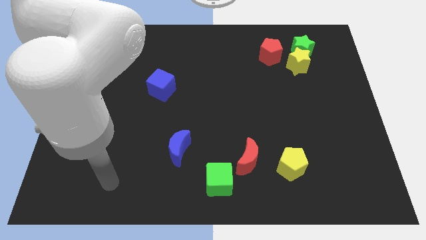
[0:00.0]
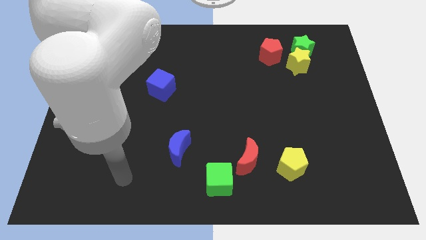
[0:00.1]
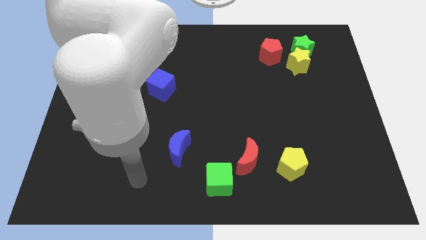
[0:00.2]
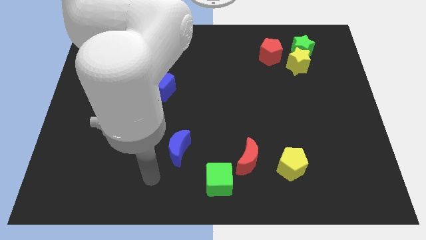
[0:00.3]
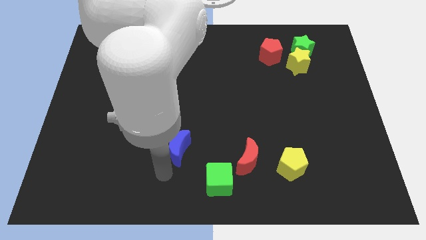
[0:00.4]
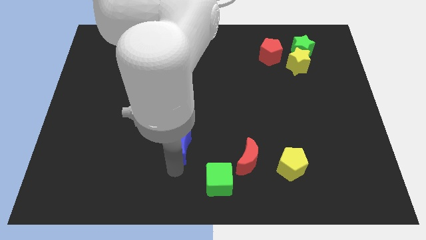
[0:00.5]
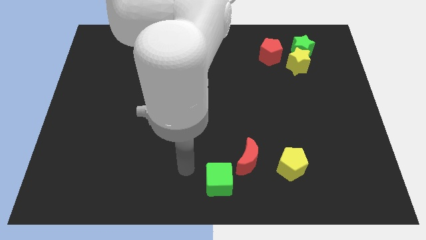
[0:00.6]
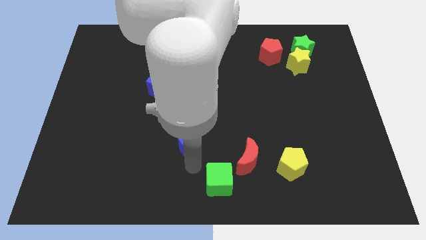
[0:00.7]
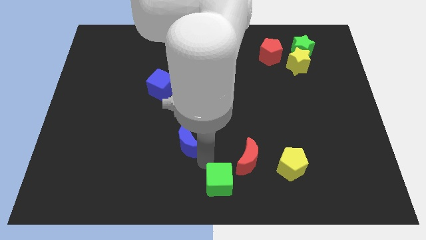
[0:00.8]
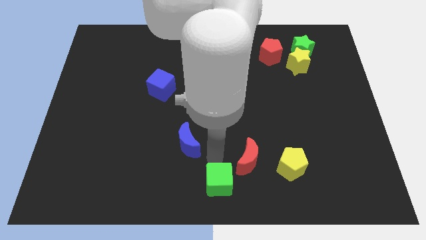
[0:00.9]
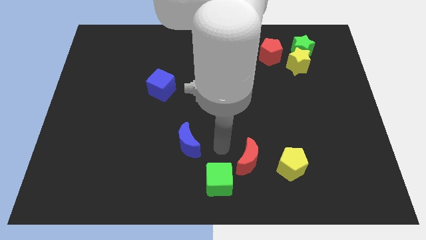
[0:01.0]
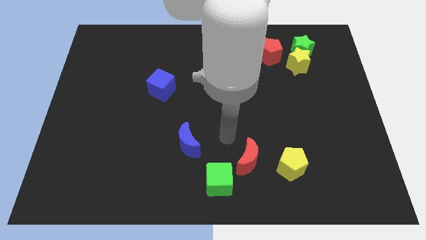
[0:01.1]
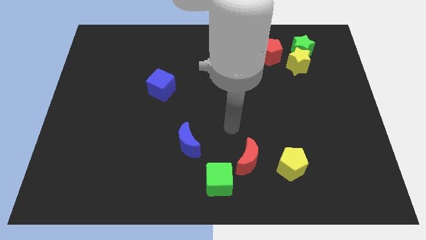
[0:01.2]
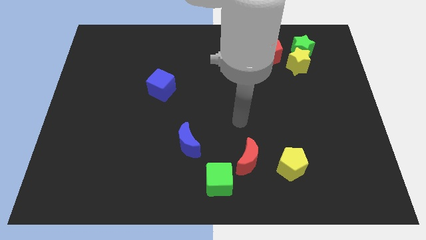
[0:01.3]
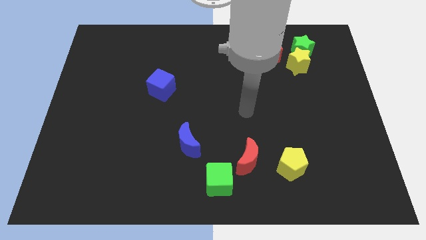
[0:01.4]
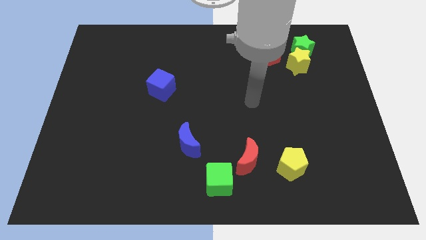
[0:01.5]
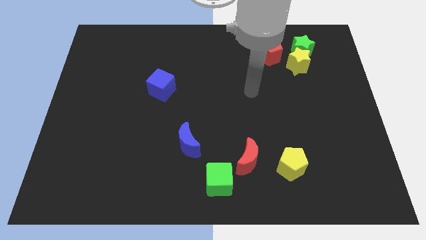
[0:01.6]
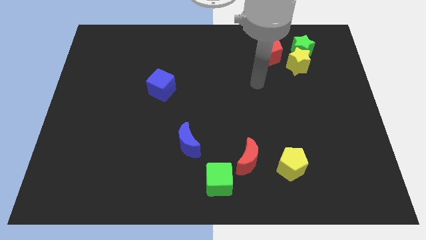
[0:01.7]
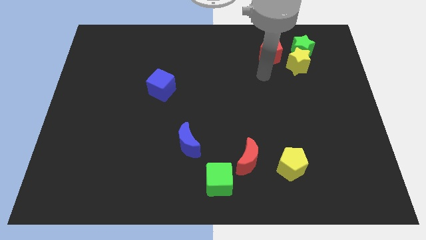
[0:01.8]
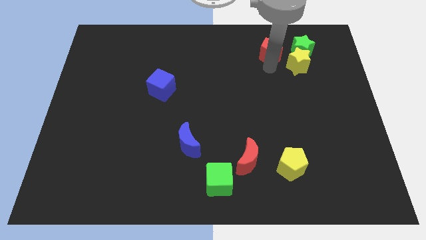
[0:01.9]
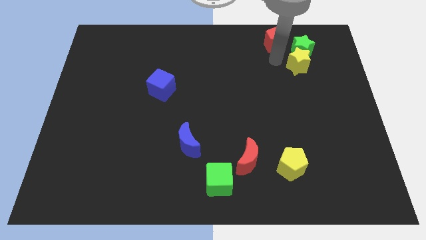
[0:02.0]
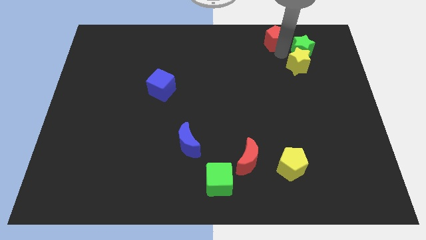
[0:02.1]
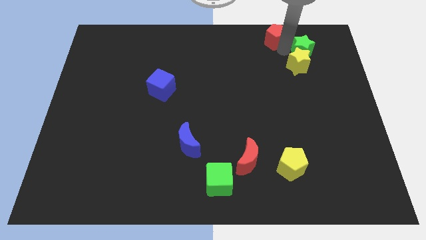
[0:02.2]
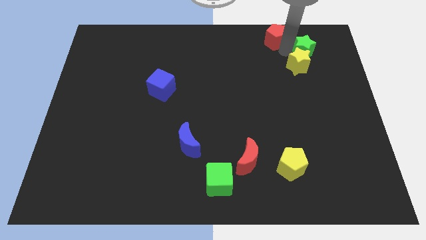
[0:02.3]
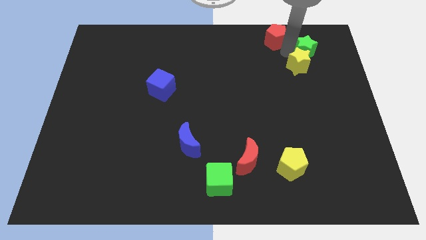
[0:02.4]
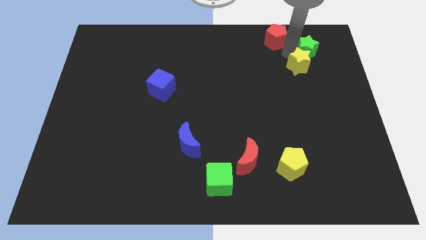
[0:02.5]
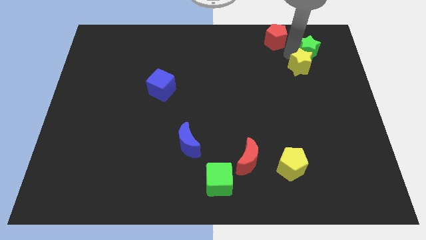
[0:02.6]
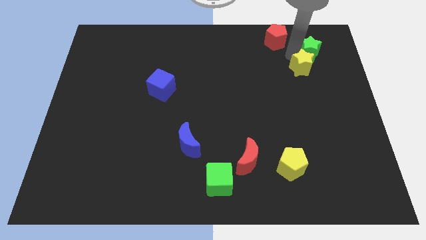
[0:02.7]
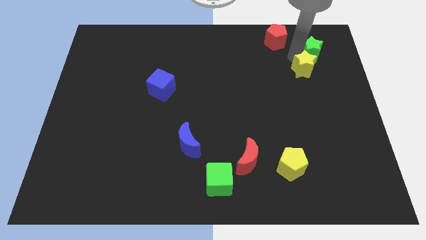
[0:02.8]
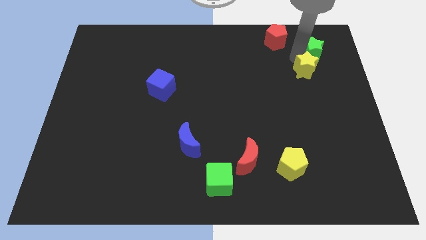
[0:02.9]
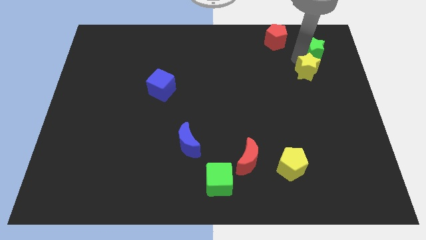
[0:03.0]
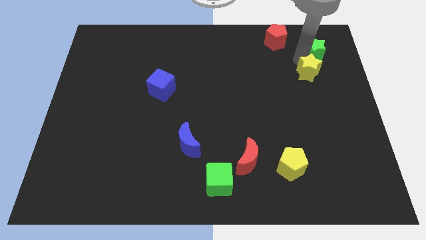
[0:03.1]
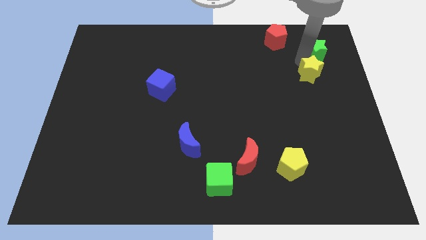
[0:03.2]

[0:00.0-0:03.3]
separate the yellow star from the green star and red pentagon

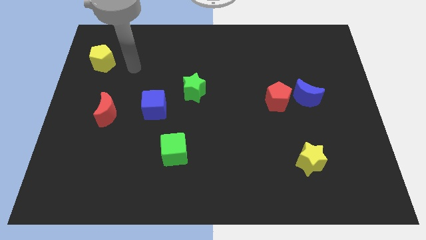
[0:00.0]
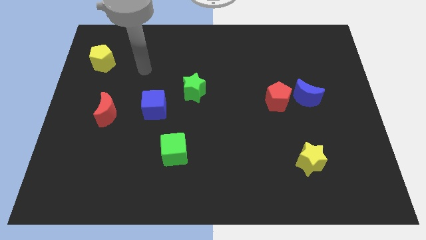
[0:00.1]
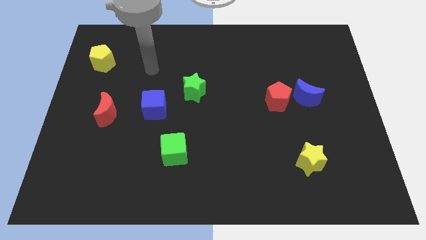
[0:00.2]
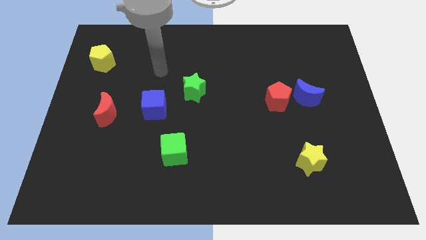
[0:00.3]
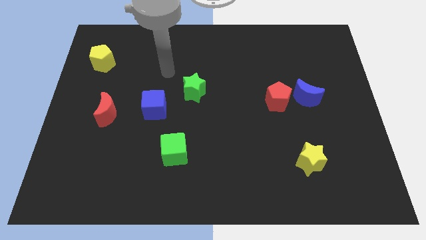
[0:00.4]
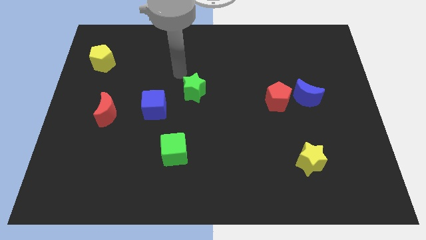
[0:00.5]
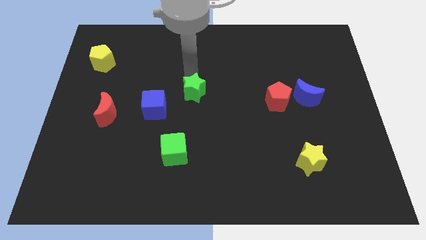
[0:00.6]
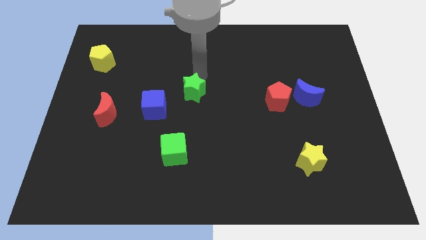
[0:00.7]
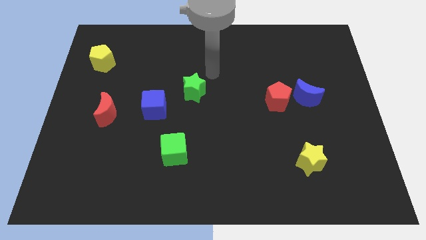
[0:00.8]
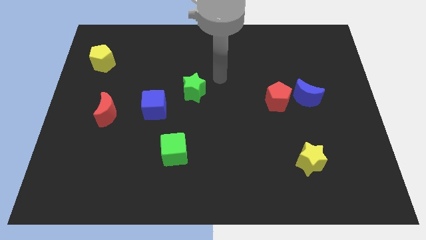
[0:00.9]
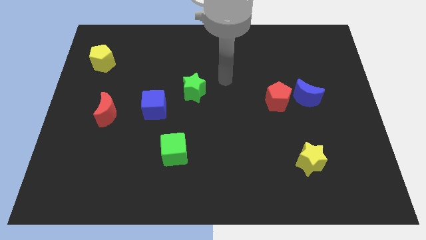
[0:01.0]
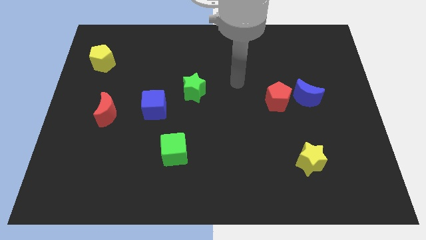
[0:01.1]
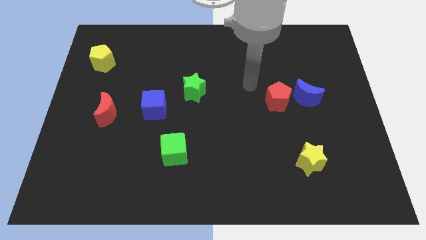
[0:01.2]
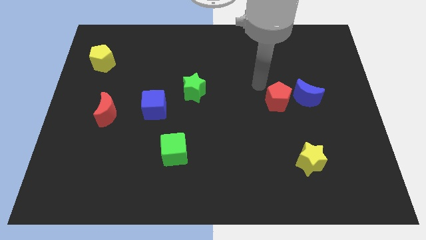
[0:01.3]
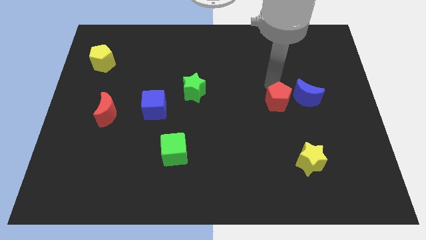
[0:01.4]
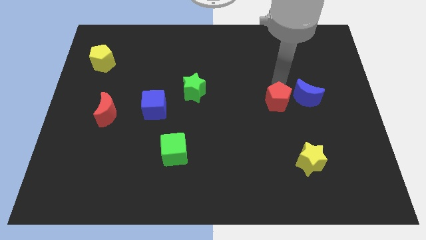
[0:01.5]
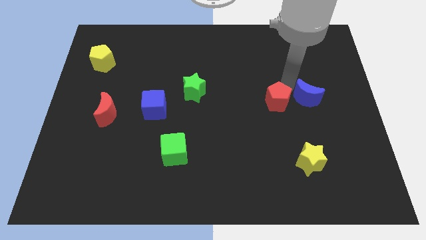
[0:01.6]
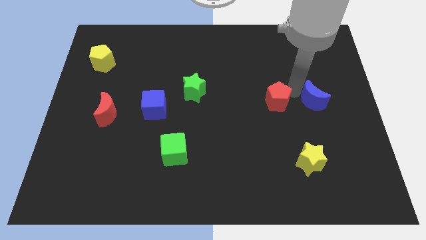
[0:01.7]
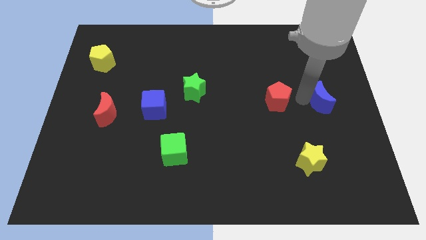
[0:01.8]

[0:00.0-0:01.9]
move the red pentagon away from the blue moon

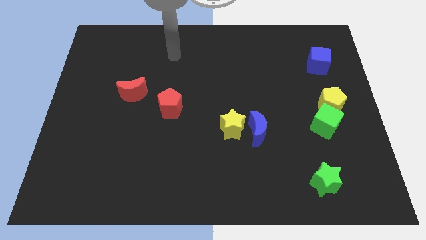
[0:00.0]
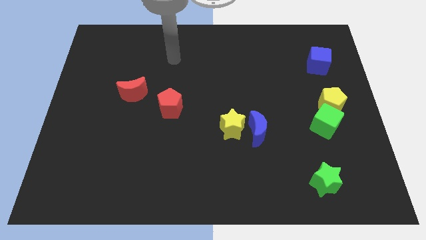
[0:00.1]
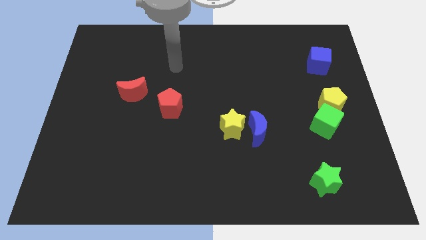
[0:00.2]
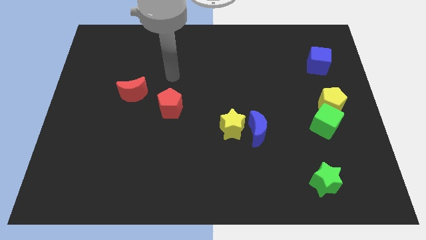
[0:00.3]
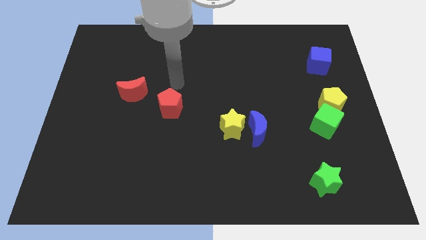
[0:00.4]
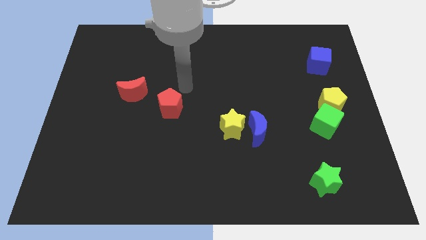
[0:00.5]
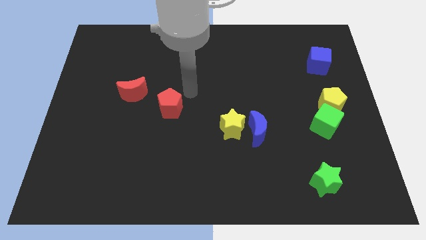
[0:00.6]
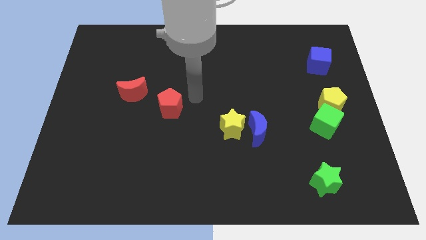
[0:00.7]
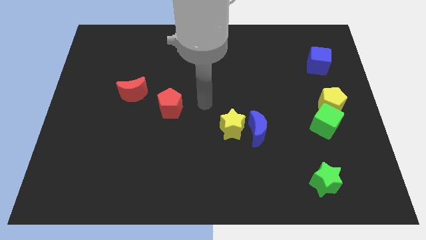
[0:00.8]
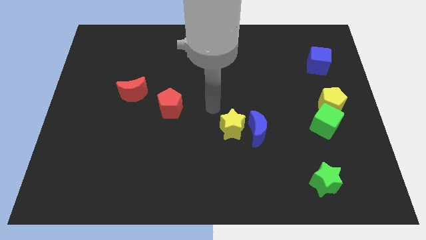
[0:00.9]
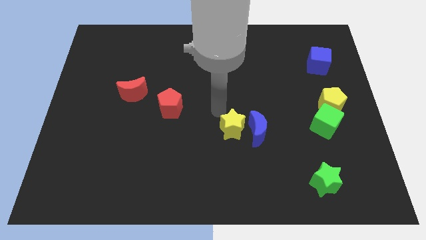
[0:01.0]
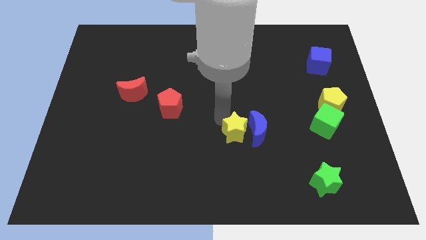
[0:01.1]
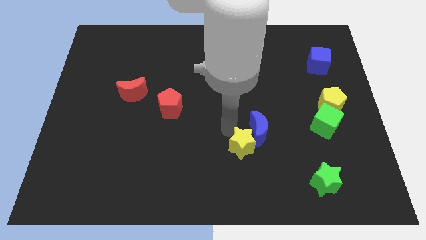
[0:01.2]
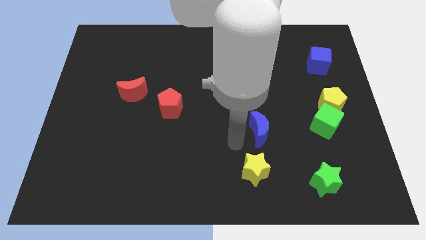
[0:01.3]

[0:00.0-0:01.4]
move the blue moon away from the yellow star

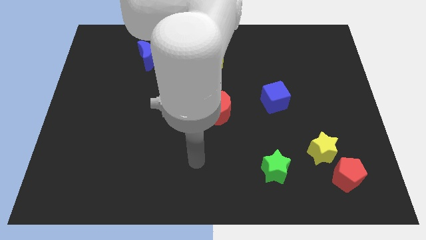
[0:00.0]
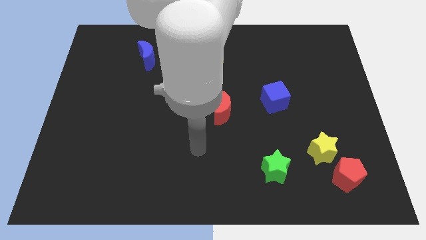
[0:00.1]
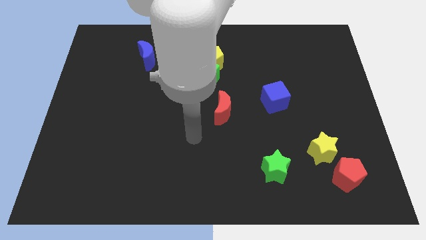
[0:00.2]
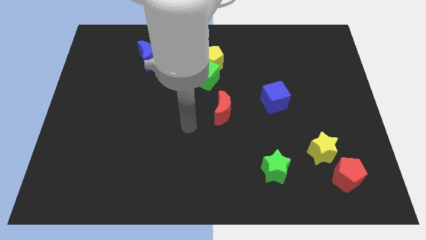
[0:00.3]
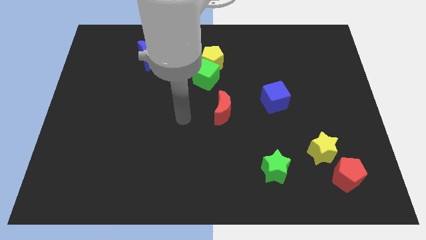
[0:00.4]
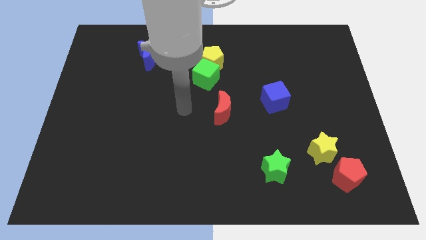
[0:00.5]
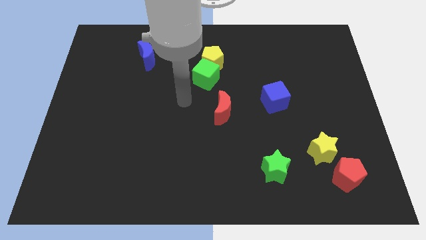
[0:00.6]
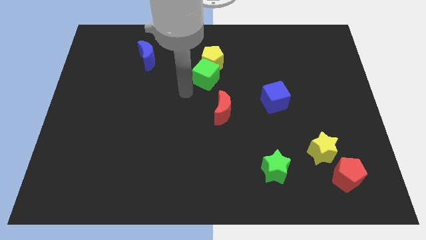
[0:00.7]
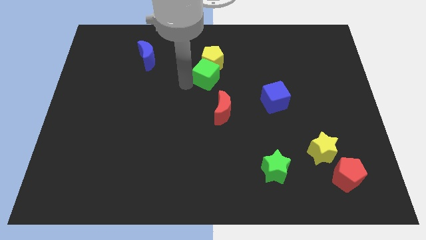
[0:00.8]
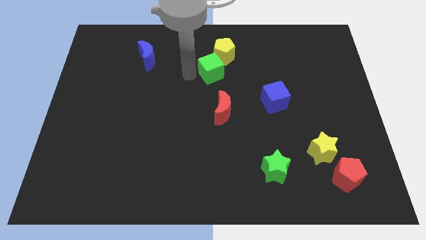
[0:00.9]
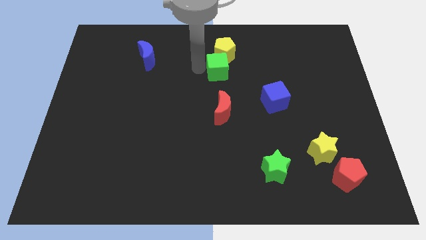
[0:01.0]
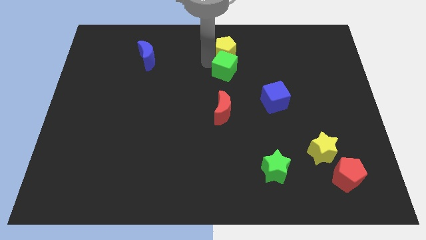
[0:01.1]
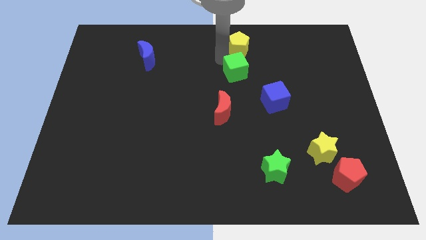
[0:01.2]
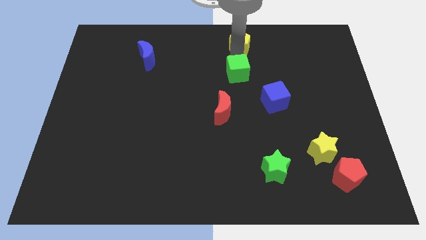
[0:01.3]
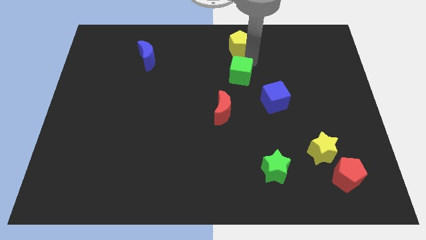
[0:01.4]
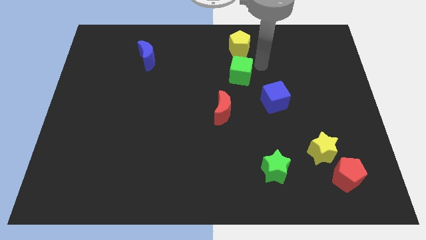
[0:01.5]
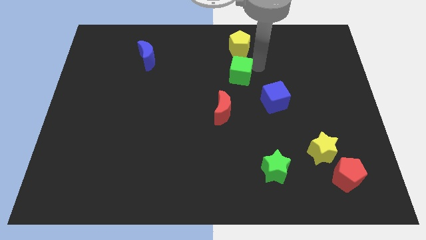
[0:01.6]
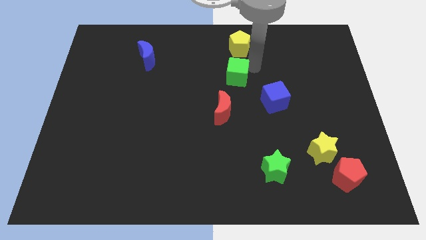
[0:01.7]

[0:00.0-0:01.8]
separate the green cube from the yellow pentagon

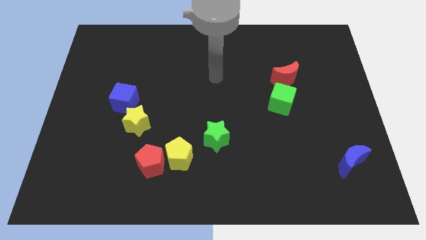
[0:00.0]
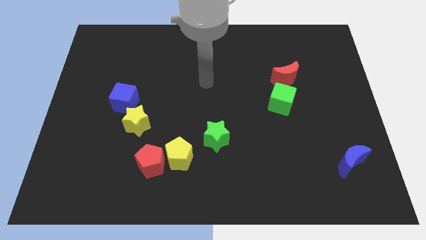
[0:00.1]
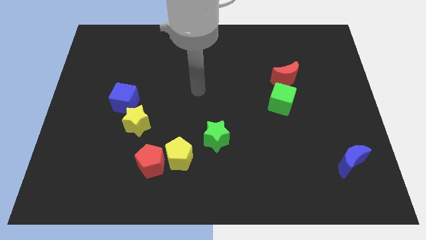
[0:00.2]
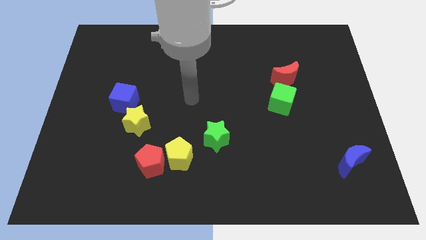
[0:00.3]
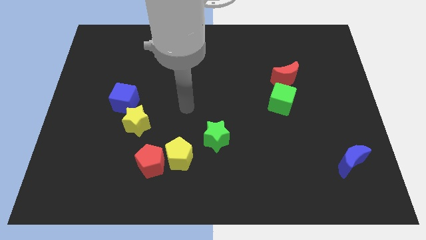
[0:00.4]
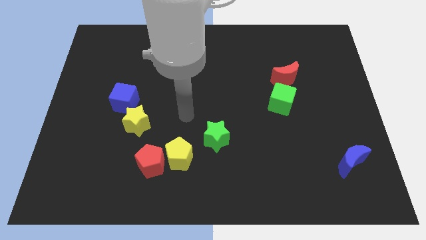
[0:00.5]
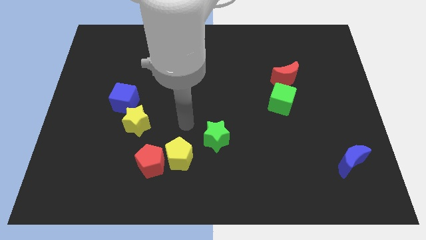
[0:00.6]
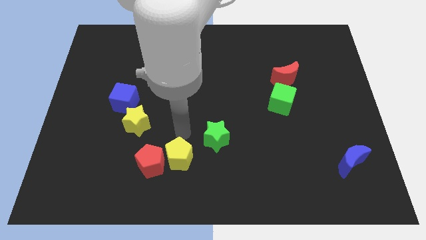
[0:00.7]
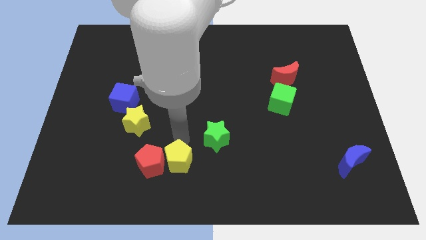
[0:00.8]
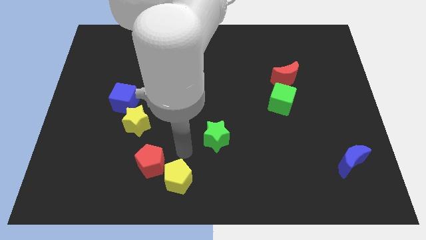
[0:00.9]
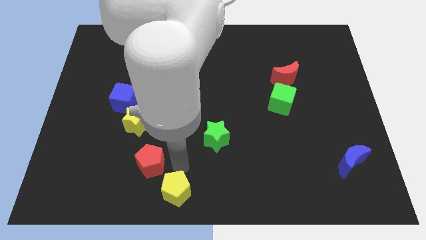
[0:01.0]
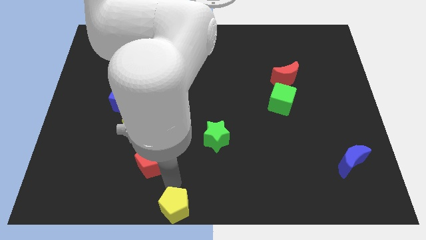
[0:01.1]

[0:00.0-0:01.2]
move the red pentagon away from the yellow pentagon
